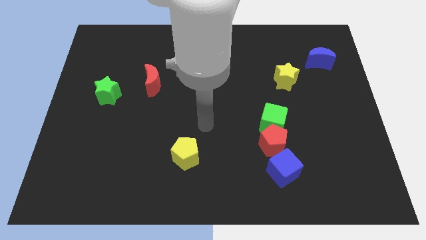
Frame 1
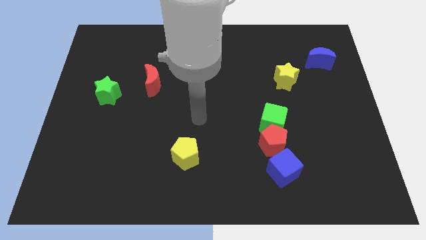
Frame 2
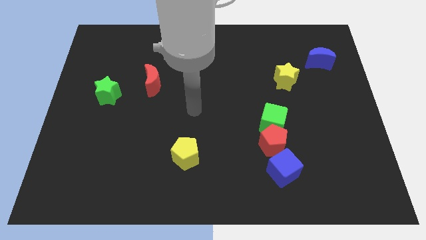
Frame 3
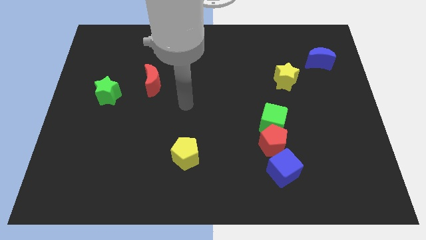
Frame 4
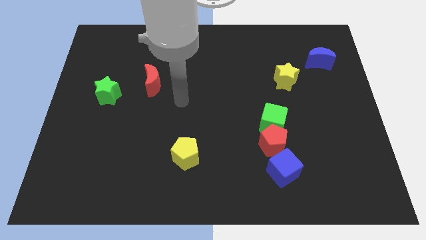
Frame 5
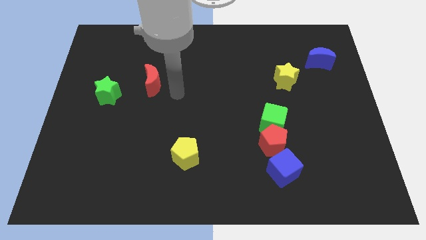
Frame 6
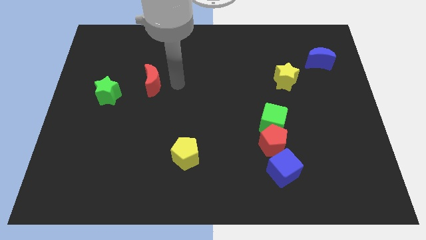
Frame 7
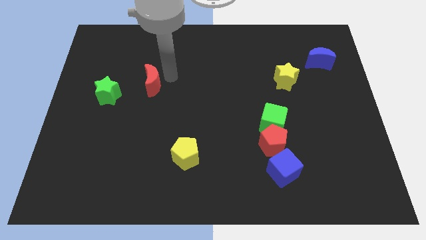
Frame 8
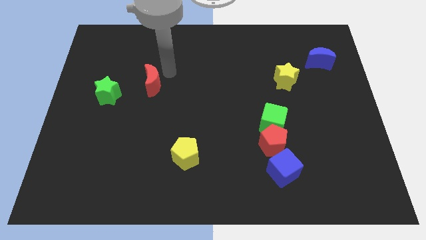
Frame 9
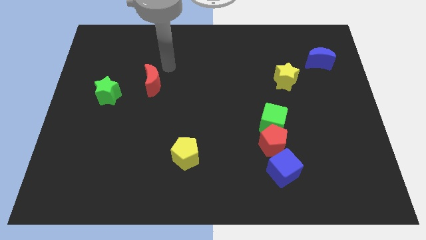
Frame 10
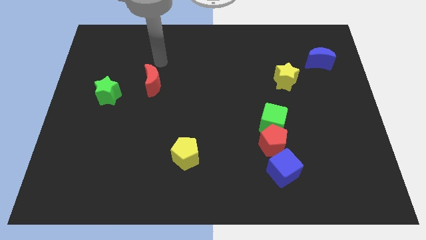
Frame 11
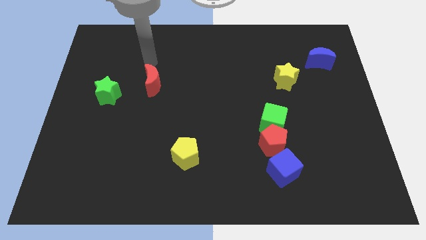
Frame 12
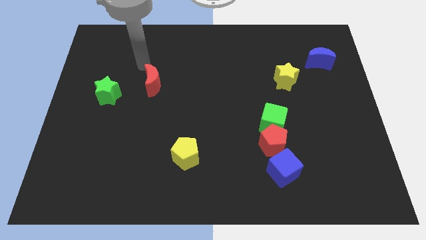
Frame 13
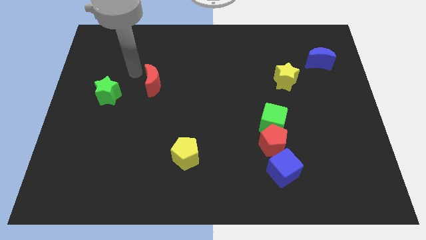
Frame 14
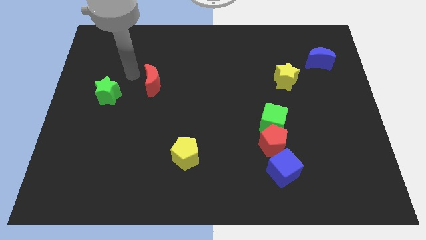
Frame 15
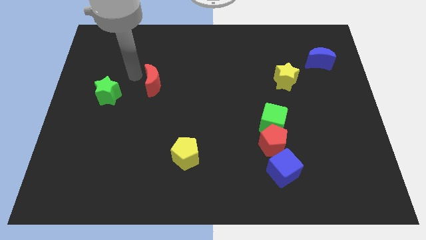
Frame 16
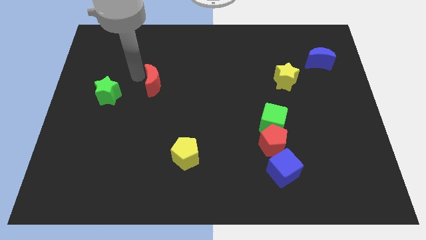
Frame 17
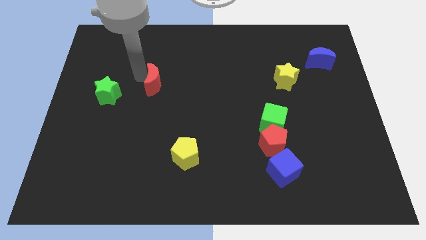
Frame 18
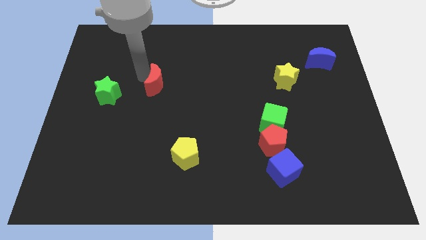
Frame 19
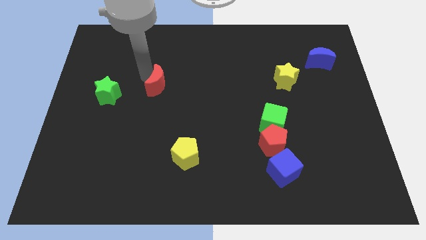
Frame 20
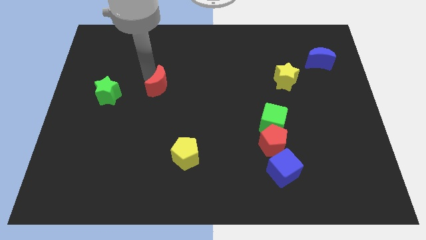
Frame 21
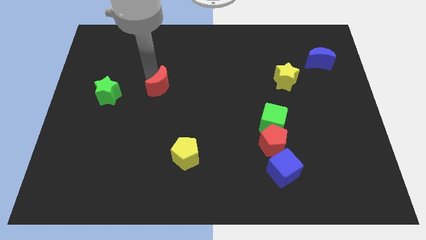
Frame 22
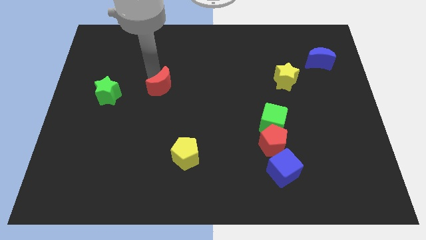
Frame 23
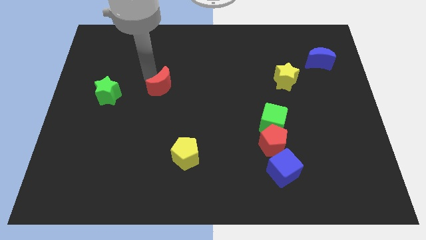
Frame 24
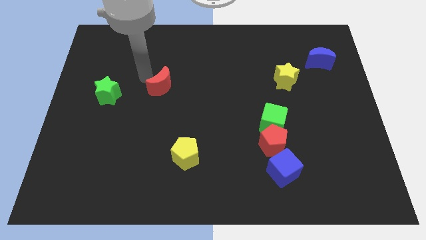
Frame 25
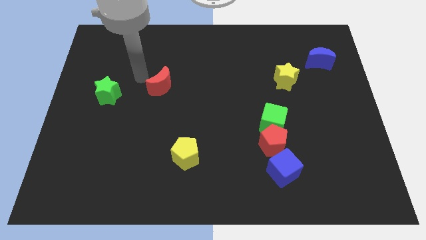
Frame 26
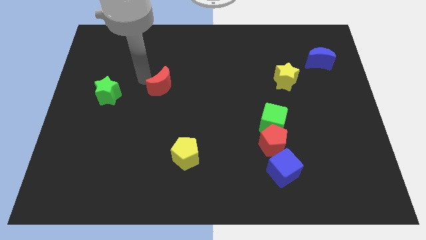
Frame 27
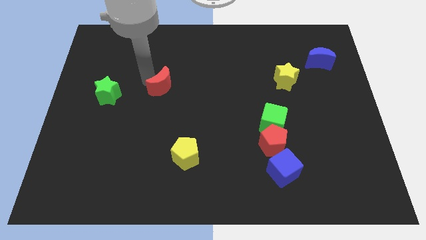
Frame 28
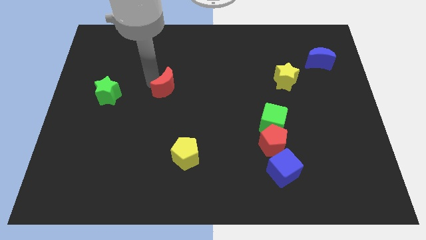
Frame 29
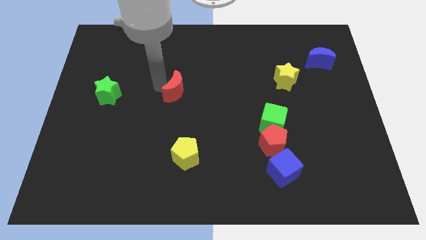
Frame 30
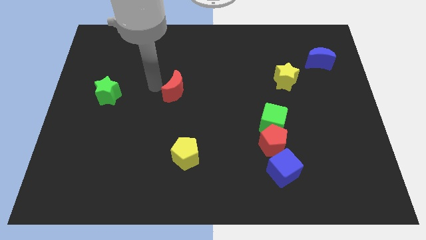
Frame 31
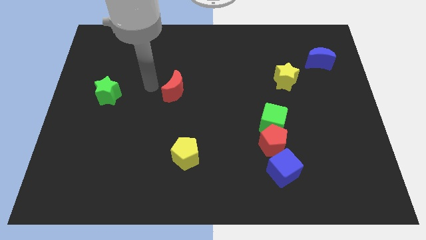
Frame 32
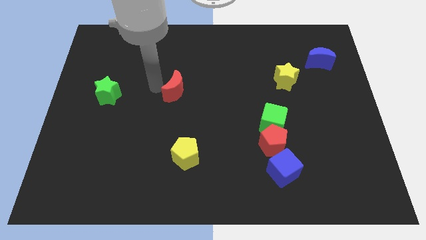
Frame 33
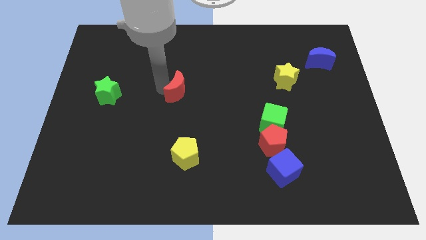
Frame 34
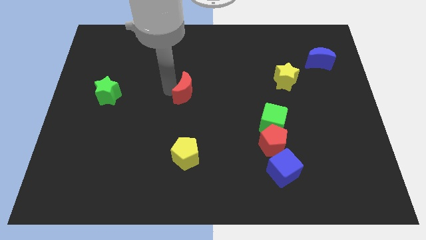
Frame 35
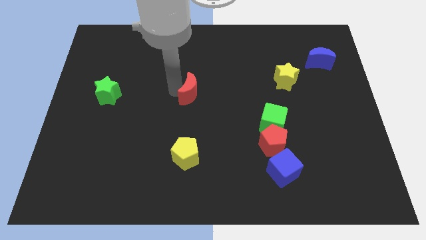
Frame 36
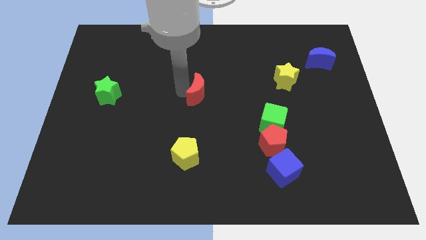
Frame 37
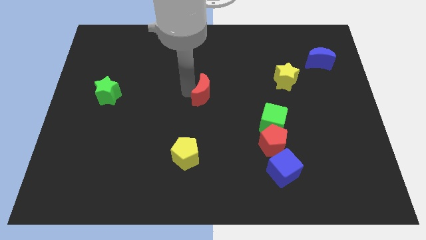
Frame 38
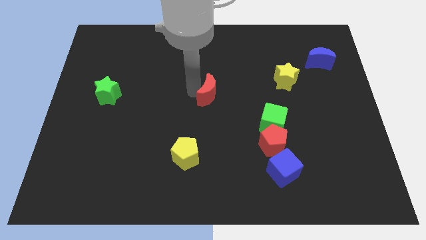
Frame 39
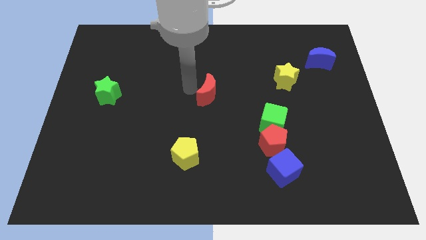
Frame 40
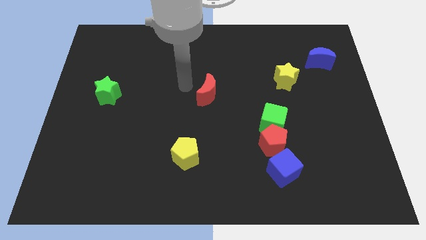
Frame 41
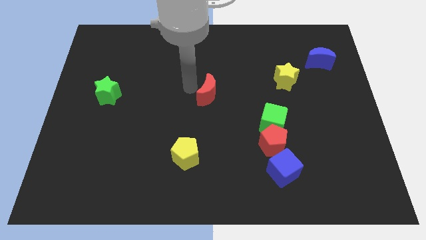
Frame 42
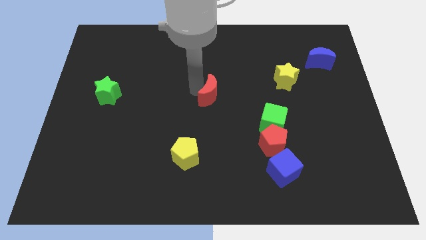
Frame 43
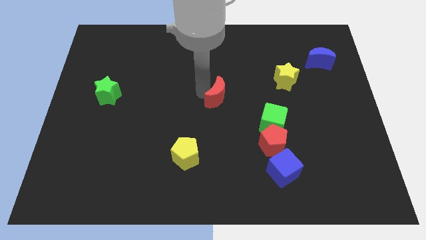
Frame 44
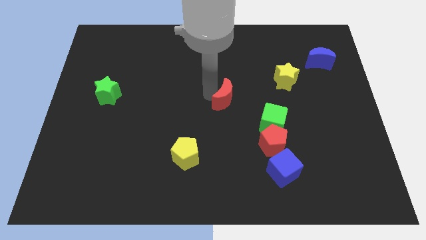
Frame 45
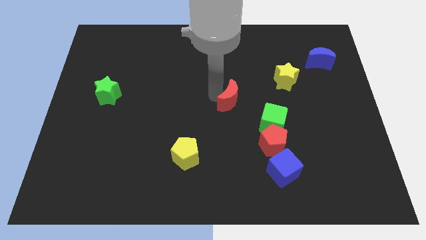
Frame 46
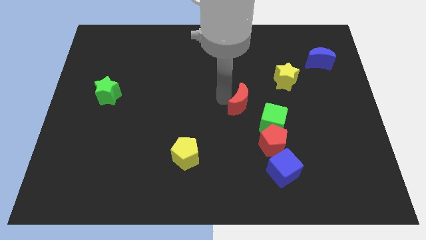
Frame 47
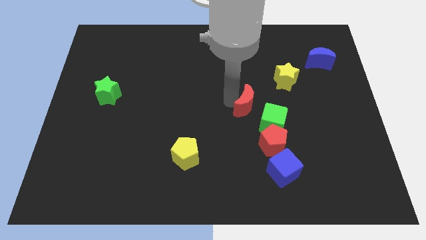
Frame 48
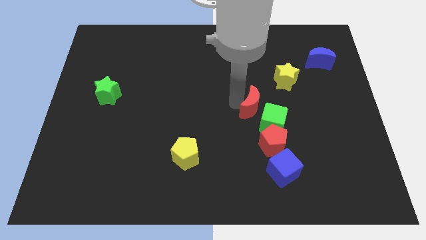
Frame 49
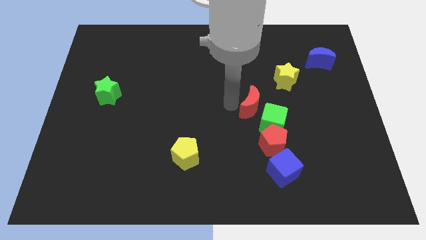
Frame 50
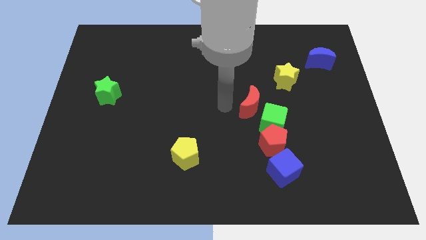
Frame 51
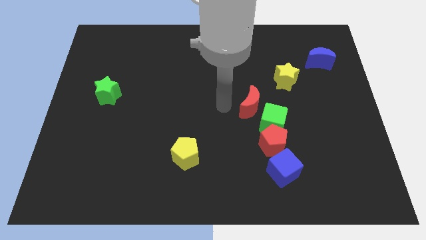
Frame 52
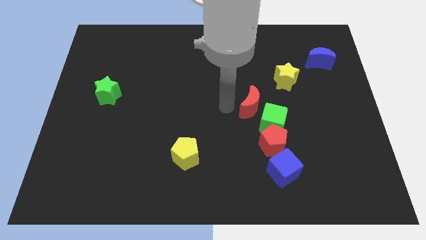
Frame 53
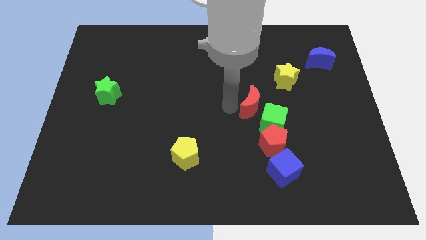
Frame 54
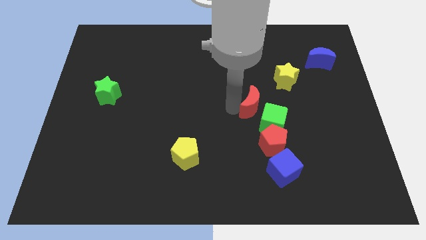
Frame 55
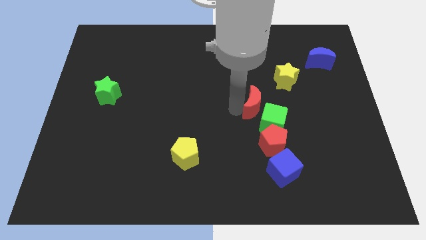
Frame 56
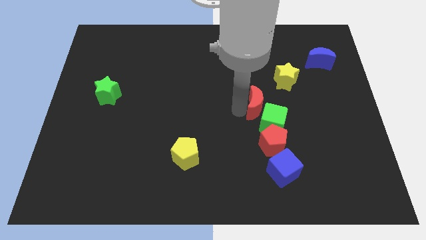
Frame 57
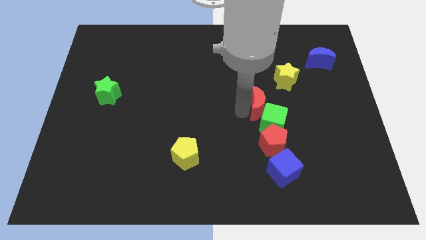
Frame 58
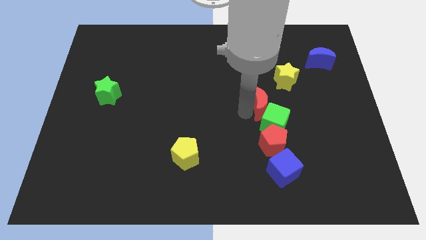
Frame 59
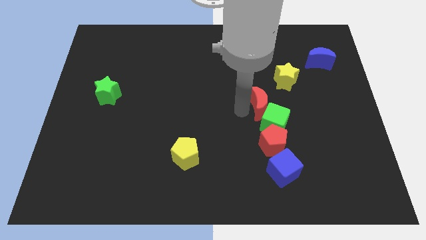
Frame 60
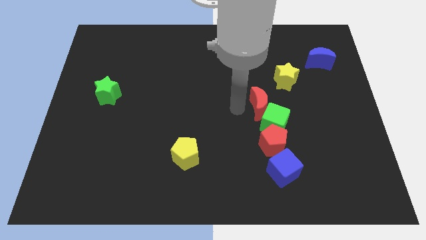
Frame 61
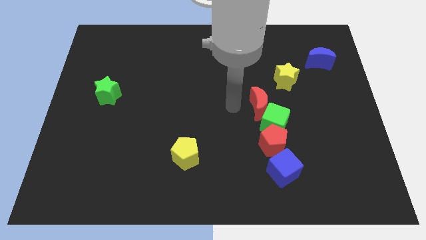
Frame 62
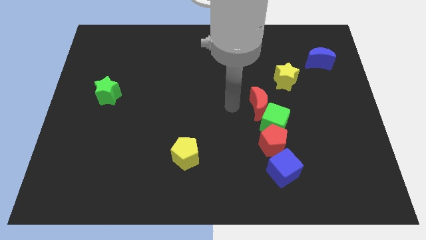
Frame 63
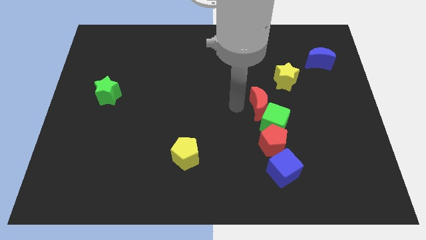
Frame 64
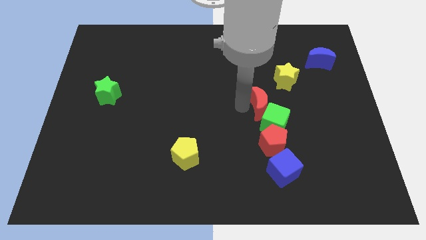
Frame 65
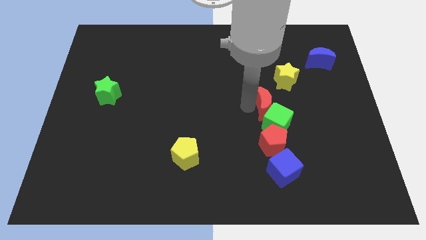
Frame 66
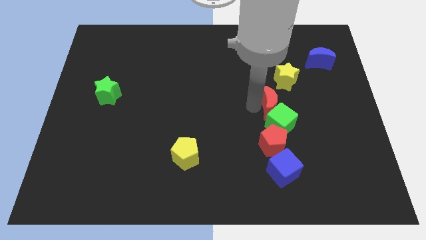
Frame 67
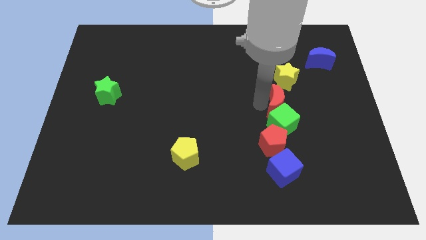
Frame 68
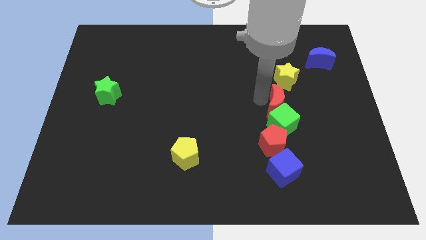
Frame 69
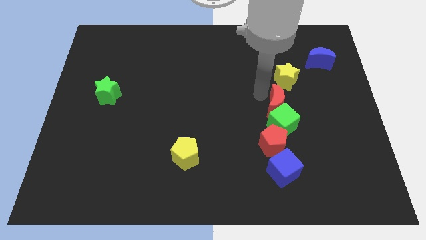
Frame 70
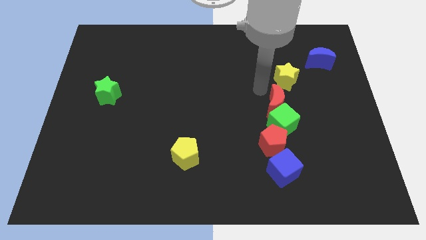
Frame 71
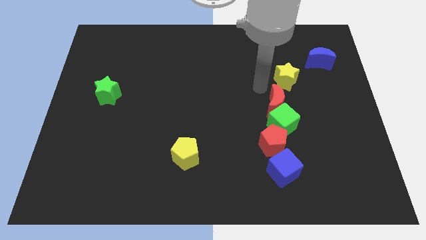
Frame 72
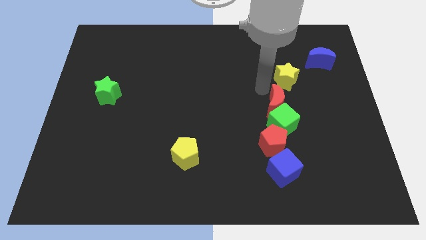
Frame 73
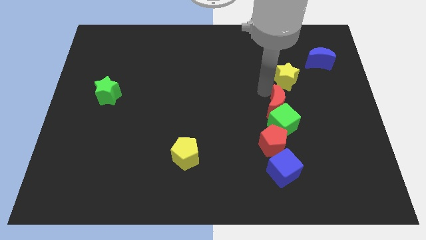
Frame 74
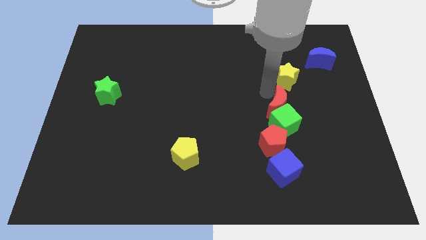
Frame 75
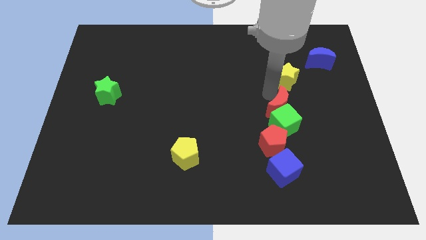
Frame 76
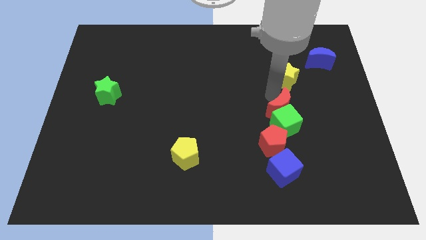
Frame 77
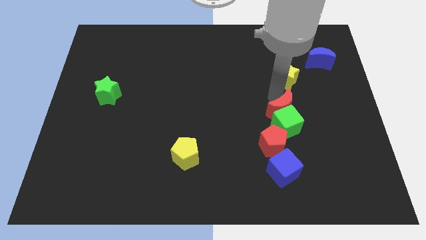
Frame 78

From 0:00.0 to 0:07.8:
put the red moon to the top right side of the red pentagon
